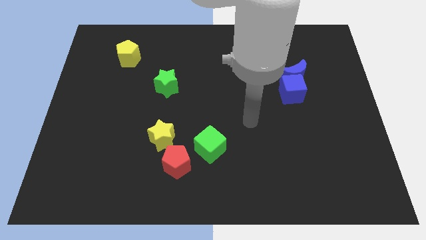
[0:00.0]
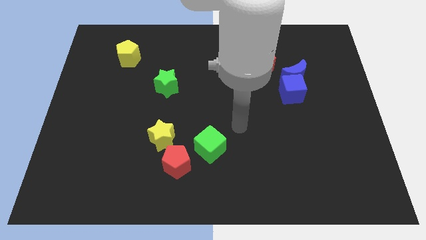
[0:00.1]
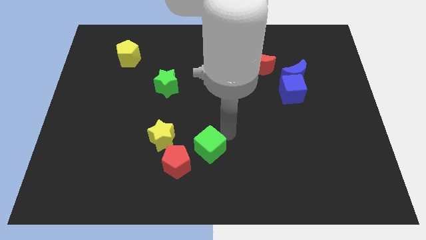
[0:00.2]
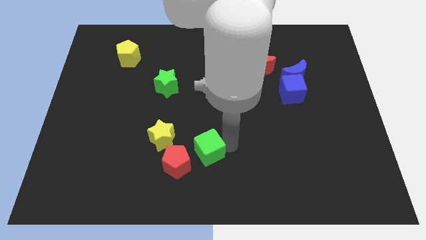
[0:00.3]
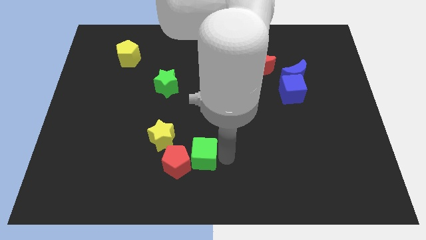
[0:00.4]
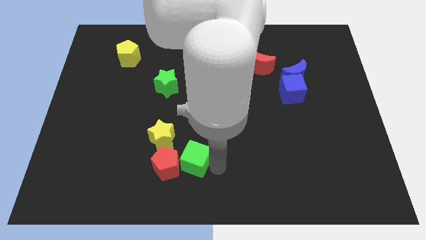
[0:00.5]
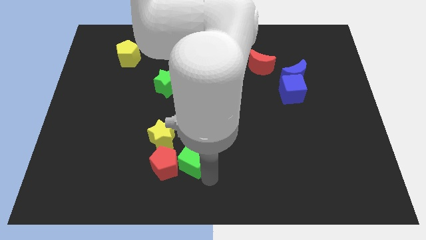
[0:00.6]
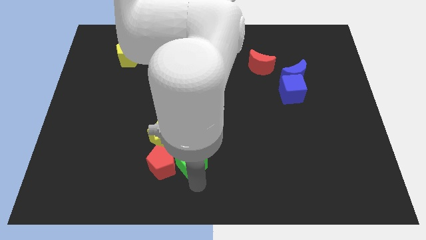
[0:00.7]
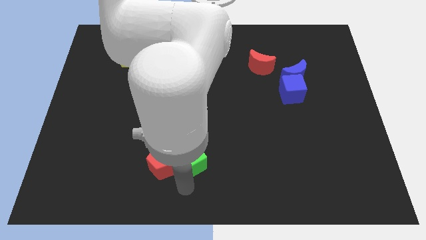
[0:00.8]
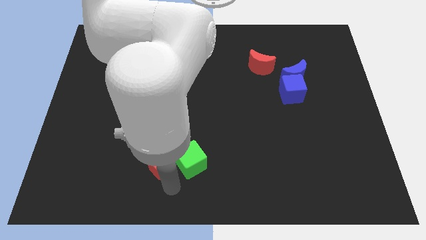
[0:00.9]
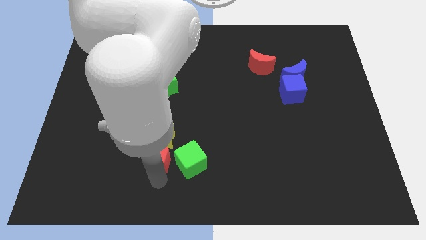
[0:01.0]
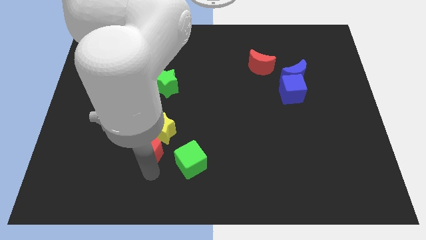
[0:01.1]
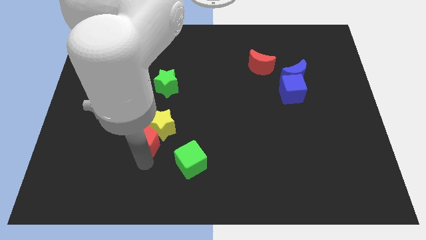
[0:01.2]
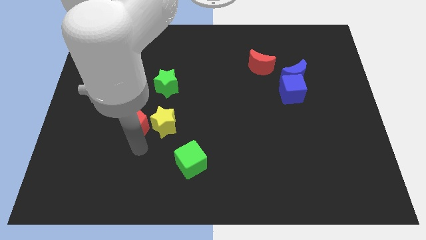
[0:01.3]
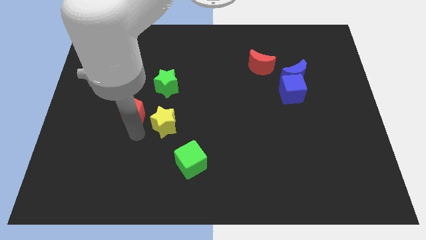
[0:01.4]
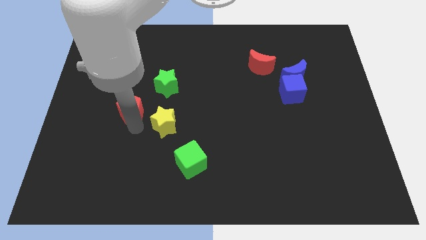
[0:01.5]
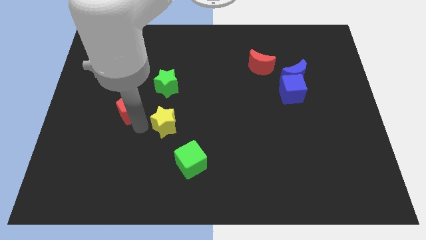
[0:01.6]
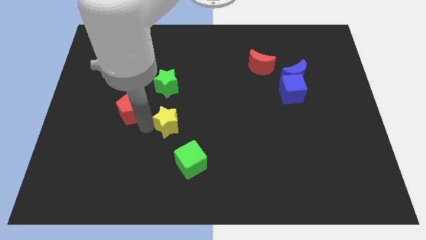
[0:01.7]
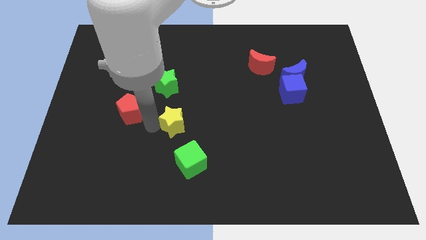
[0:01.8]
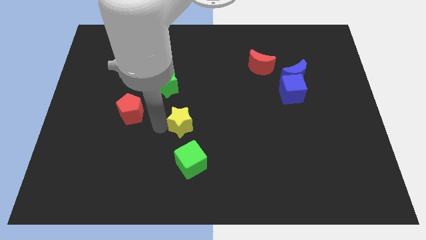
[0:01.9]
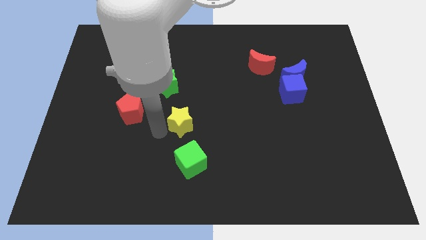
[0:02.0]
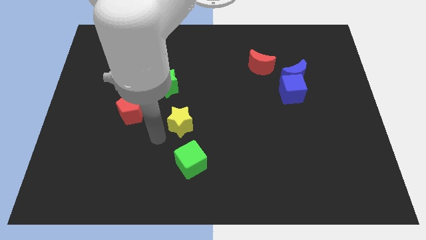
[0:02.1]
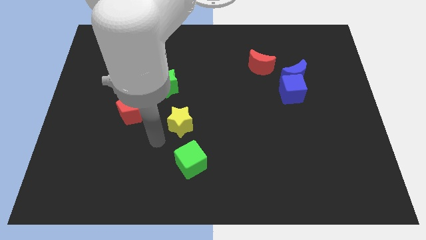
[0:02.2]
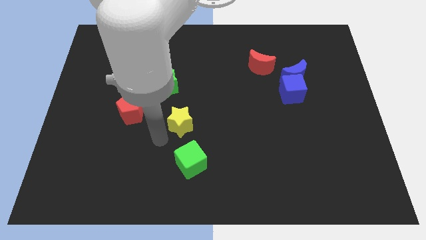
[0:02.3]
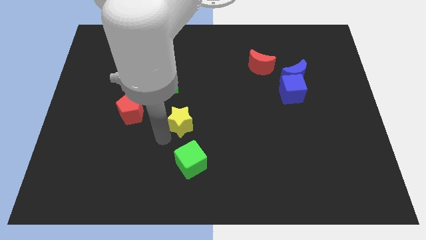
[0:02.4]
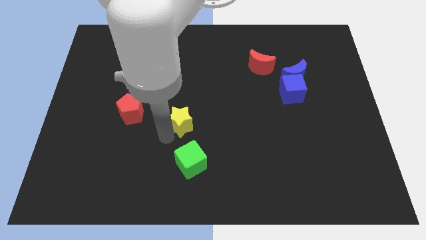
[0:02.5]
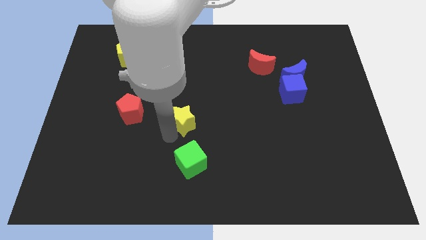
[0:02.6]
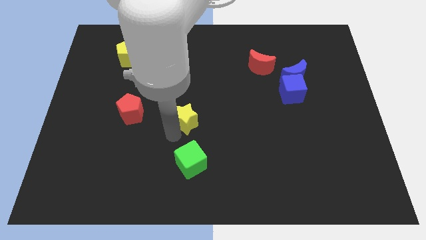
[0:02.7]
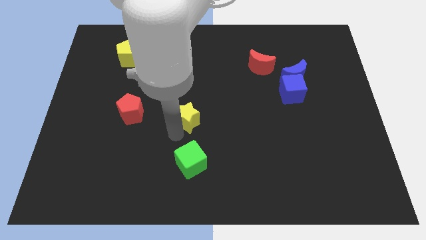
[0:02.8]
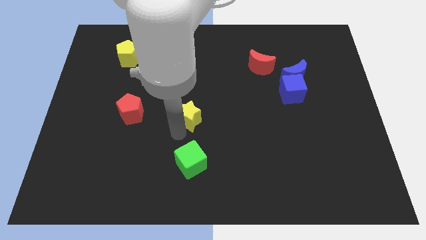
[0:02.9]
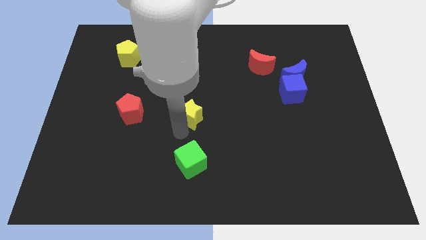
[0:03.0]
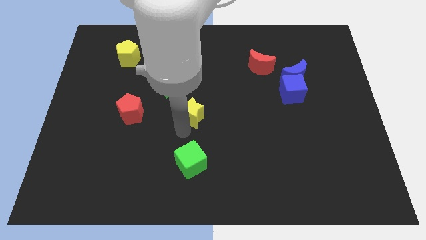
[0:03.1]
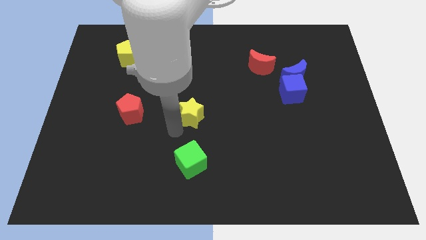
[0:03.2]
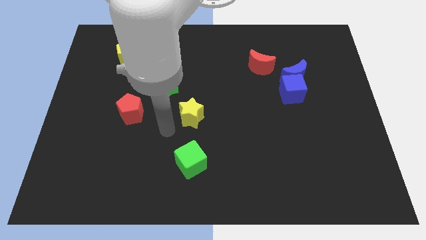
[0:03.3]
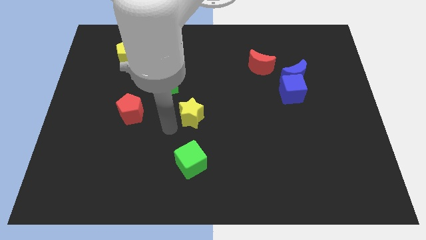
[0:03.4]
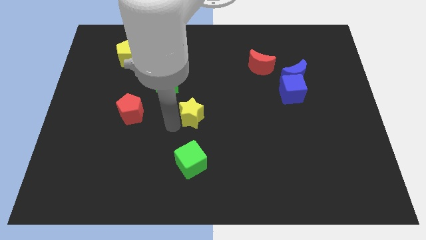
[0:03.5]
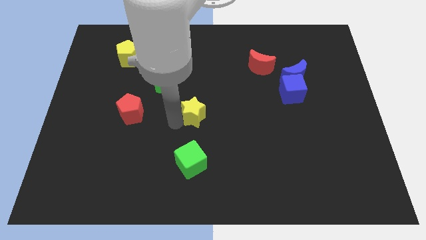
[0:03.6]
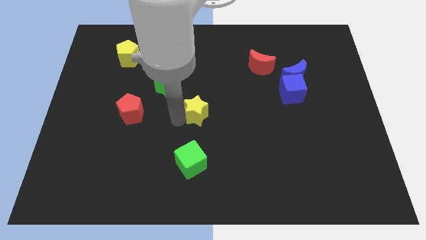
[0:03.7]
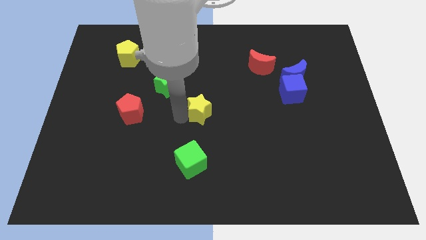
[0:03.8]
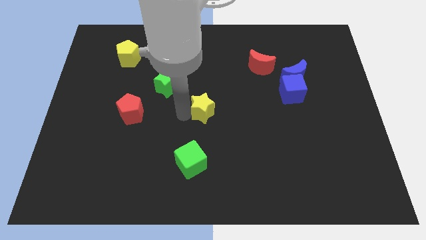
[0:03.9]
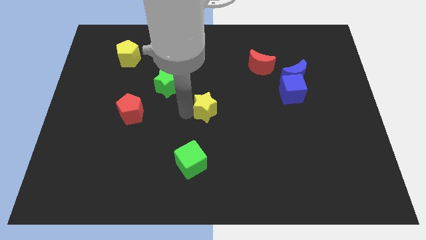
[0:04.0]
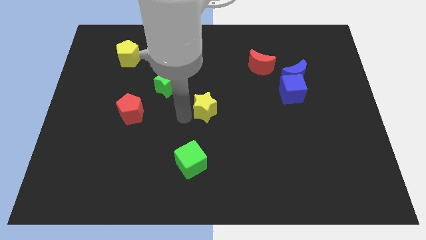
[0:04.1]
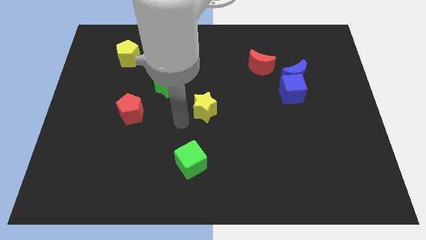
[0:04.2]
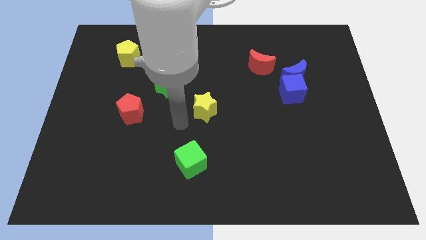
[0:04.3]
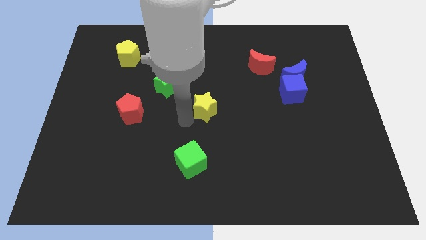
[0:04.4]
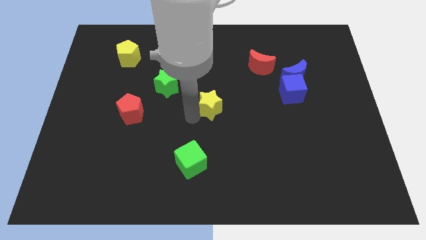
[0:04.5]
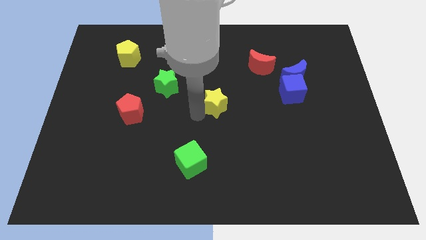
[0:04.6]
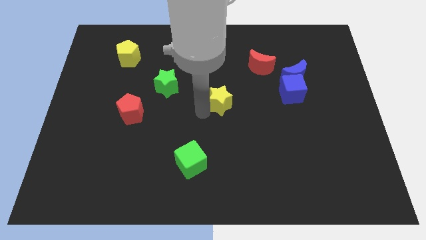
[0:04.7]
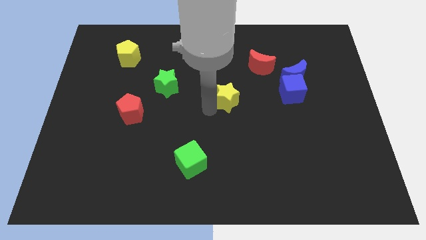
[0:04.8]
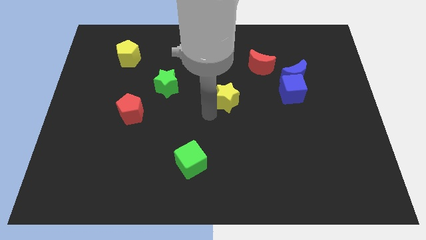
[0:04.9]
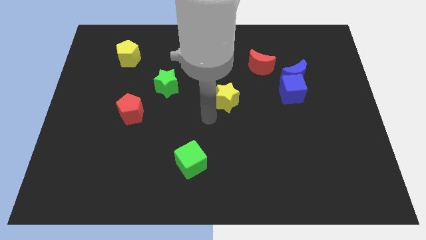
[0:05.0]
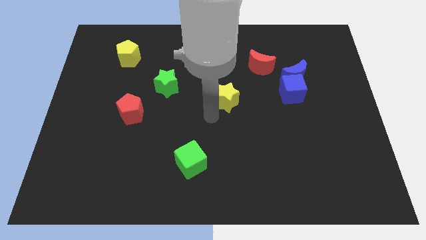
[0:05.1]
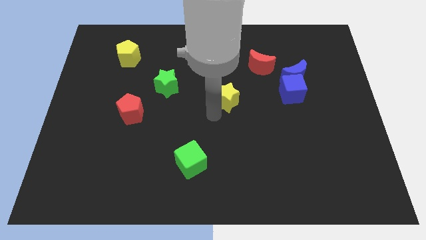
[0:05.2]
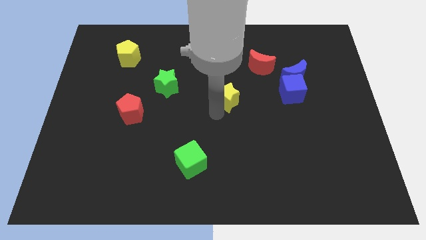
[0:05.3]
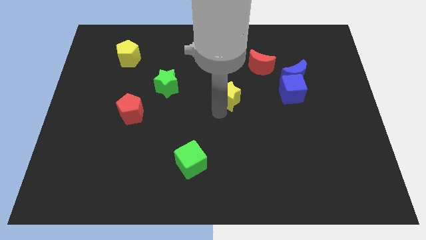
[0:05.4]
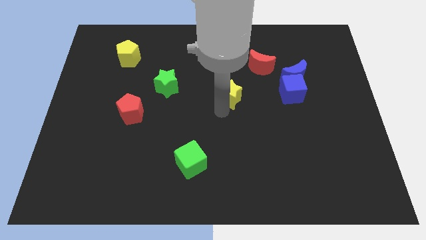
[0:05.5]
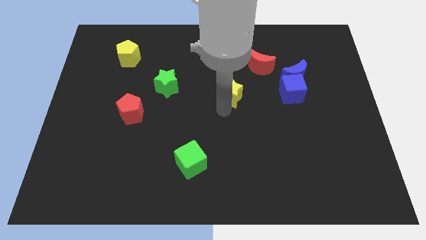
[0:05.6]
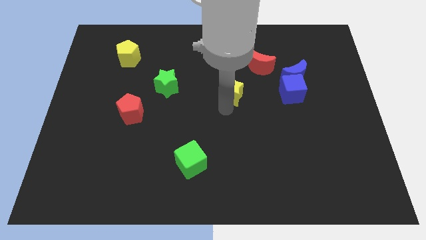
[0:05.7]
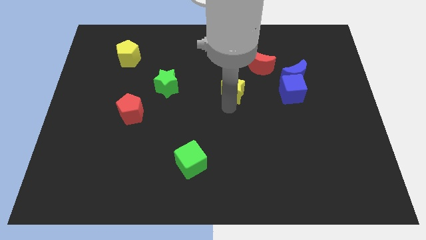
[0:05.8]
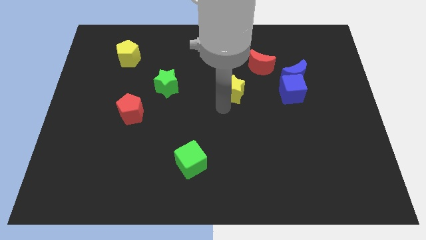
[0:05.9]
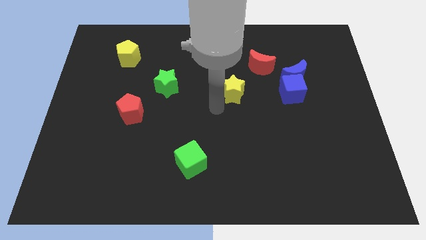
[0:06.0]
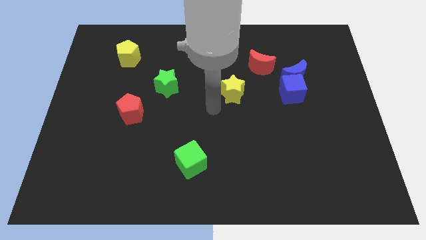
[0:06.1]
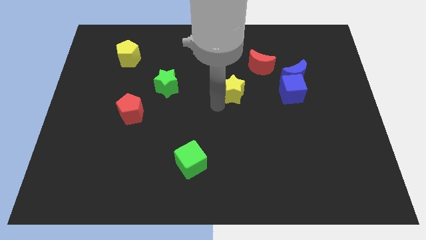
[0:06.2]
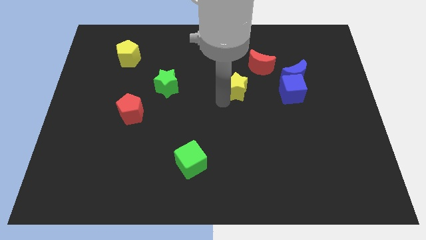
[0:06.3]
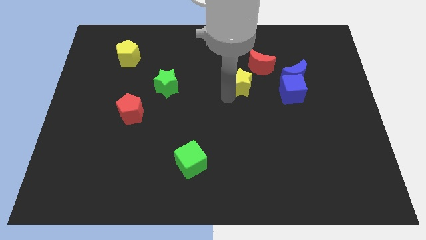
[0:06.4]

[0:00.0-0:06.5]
move the yellow star just left of the blue moon
